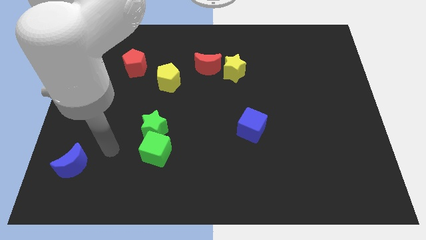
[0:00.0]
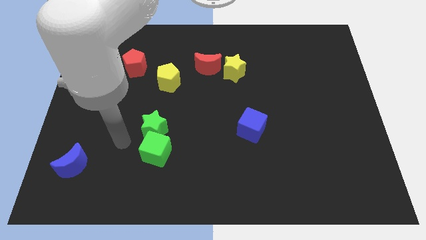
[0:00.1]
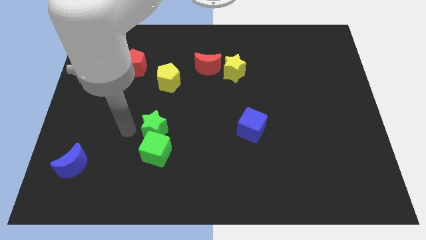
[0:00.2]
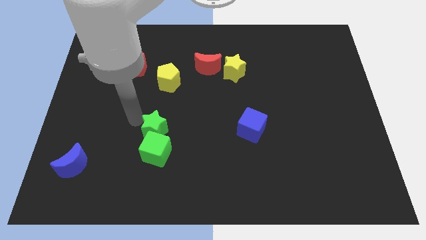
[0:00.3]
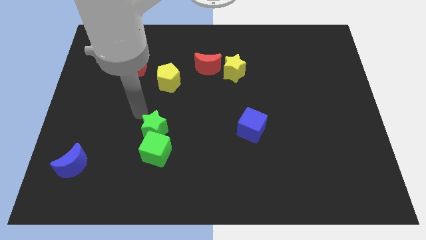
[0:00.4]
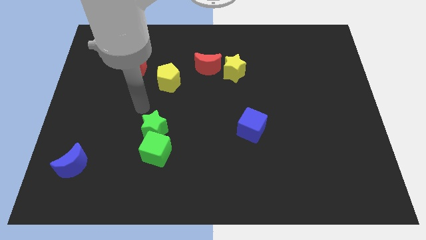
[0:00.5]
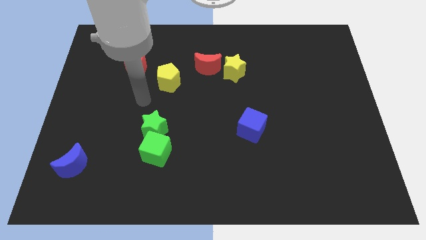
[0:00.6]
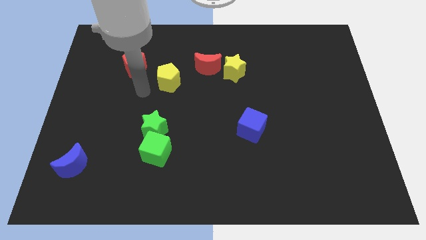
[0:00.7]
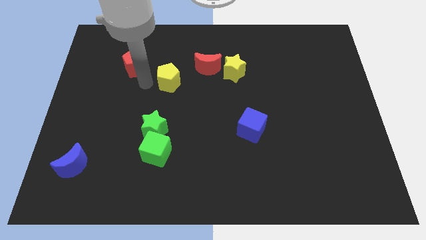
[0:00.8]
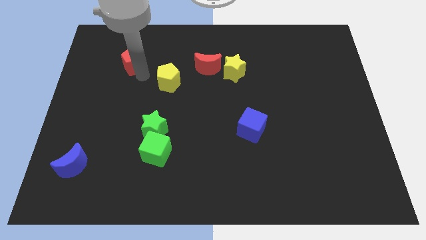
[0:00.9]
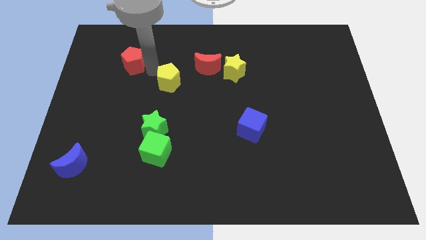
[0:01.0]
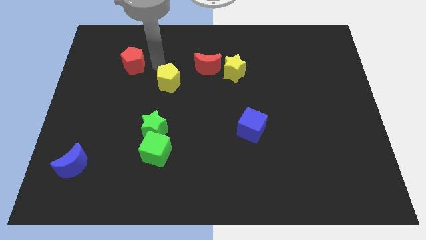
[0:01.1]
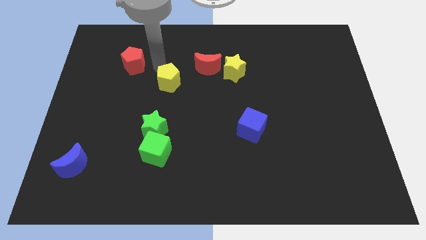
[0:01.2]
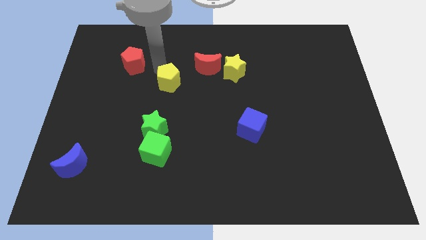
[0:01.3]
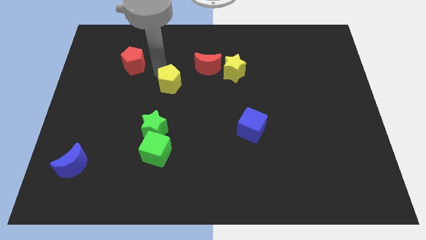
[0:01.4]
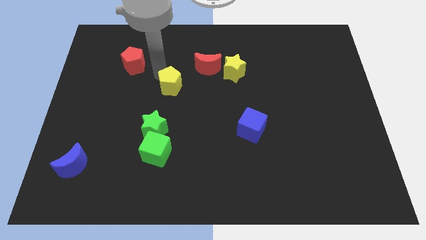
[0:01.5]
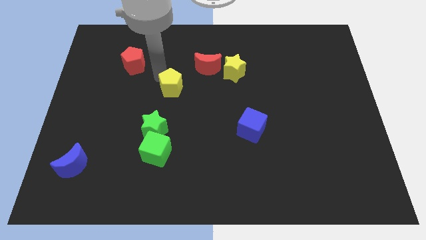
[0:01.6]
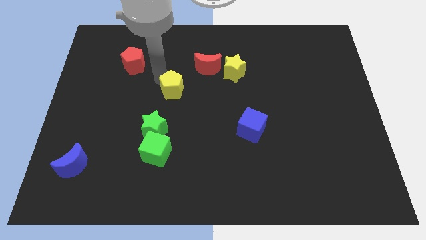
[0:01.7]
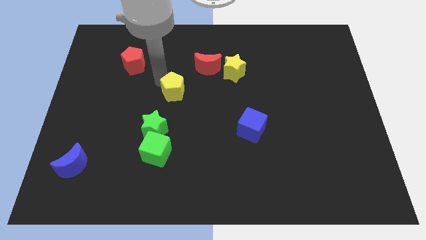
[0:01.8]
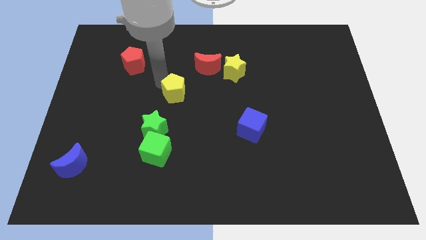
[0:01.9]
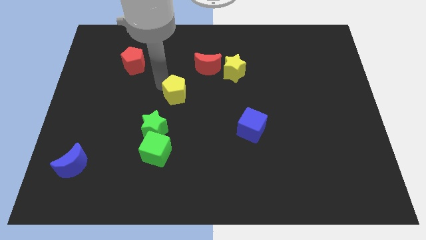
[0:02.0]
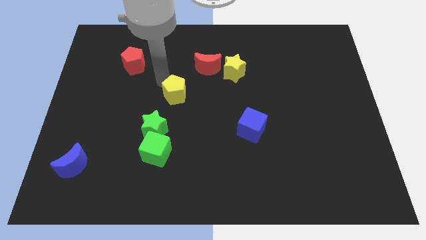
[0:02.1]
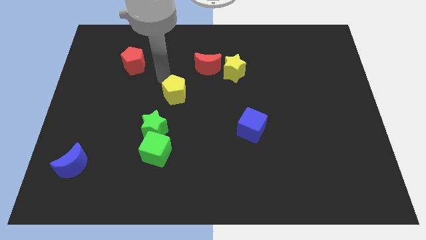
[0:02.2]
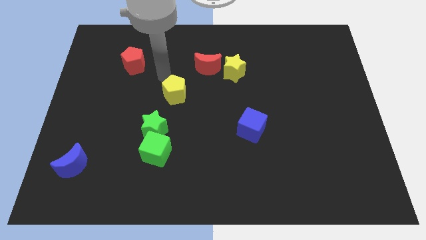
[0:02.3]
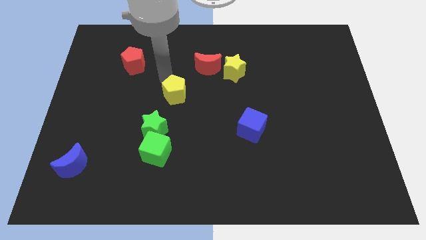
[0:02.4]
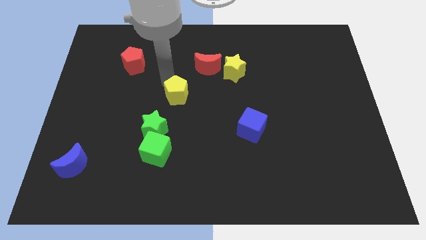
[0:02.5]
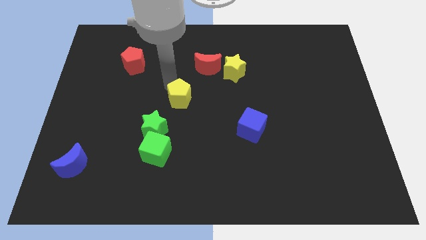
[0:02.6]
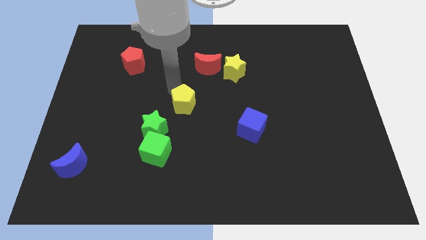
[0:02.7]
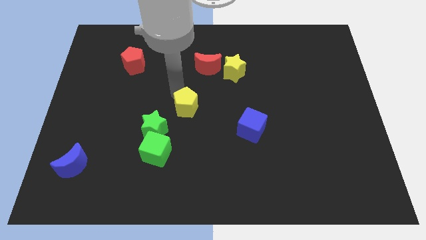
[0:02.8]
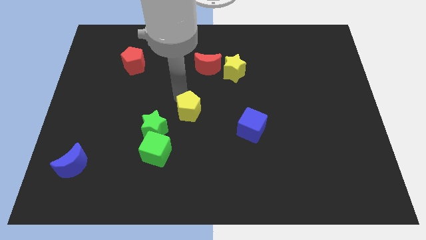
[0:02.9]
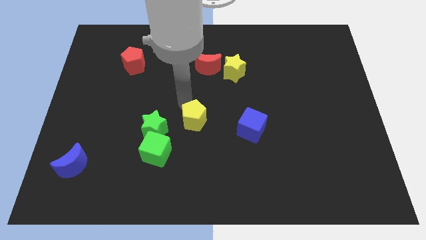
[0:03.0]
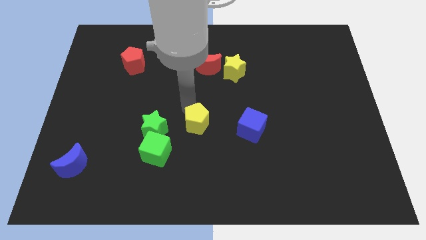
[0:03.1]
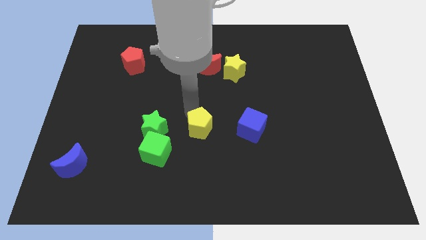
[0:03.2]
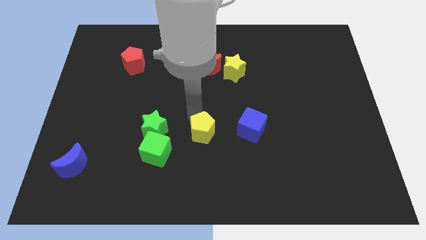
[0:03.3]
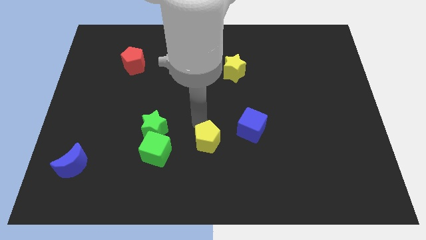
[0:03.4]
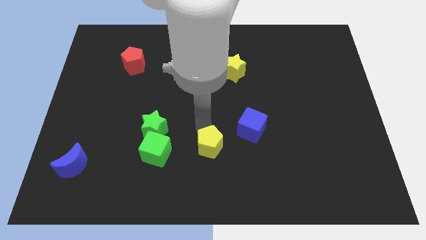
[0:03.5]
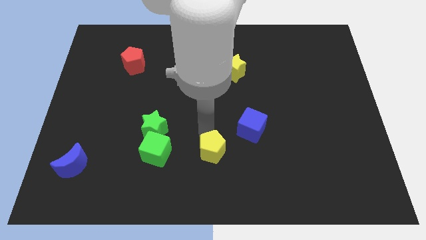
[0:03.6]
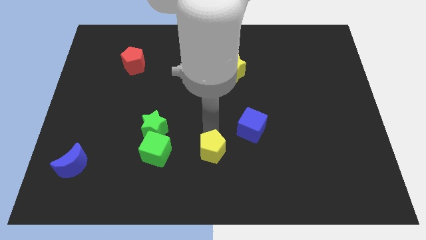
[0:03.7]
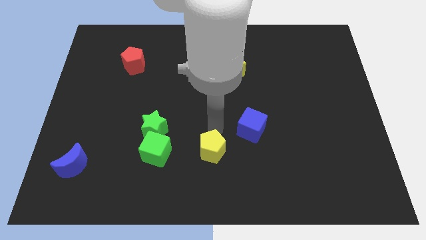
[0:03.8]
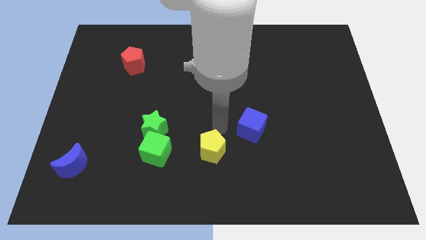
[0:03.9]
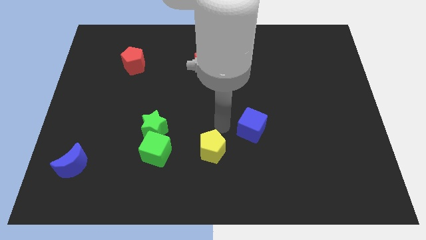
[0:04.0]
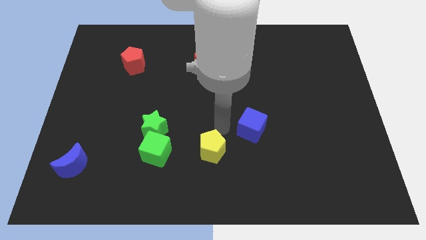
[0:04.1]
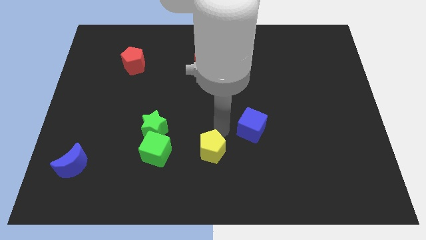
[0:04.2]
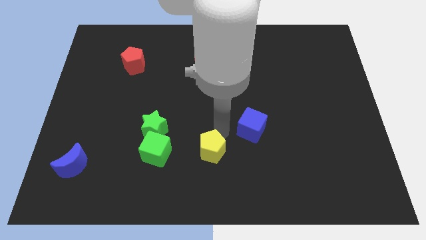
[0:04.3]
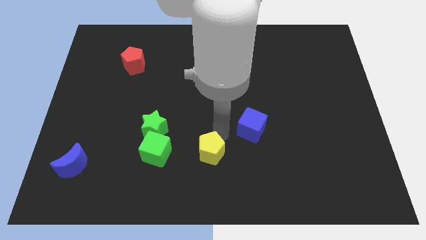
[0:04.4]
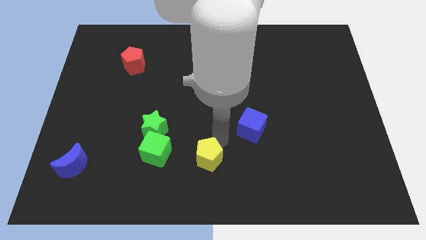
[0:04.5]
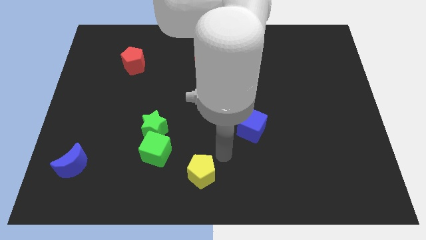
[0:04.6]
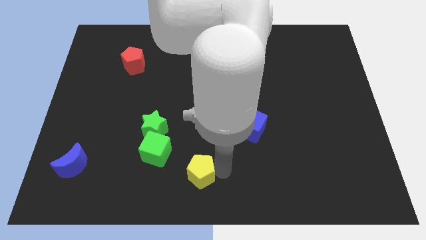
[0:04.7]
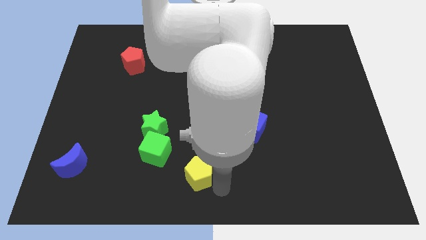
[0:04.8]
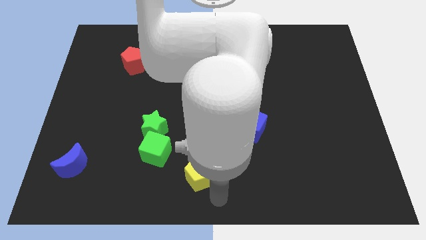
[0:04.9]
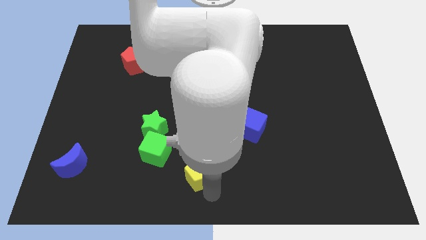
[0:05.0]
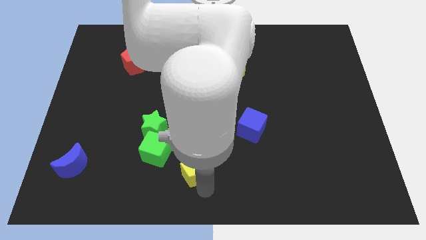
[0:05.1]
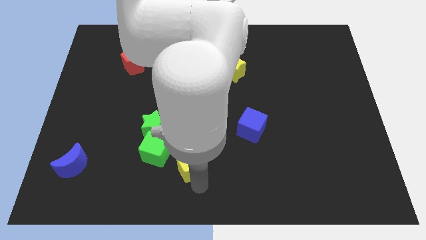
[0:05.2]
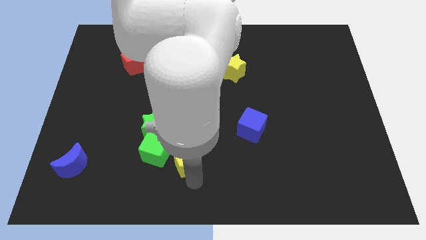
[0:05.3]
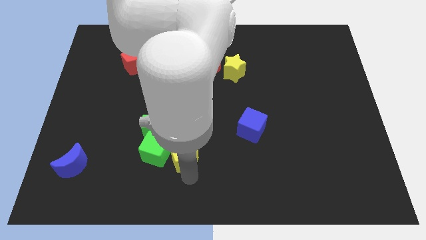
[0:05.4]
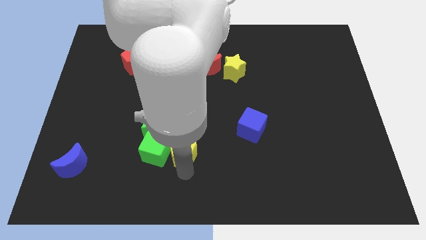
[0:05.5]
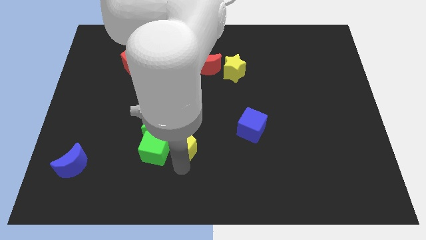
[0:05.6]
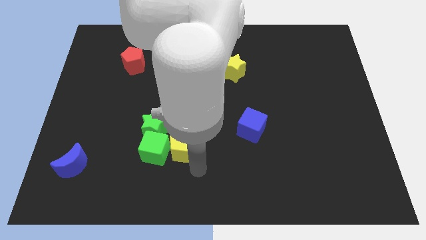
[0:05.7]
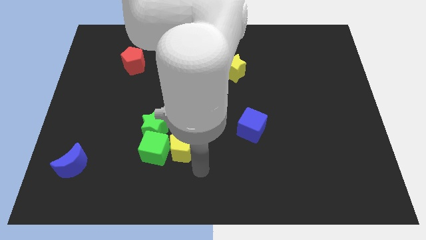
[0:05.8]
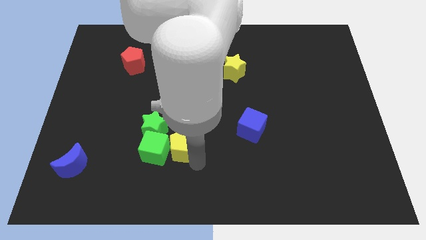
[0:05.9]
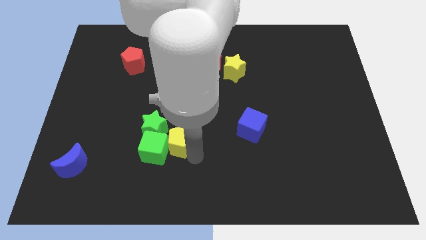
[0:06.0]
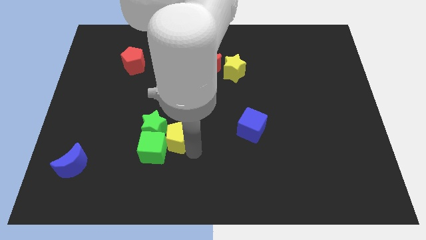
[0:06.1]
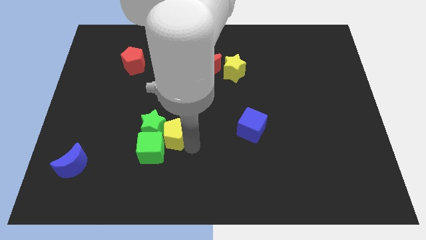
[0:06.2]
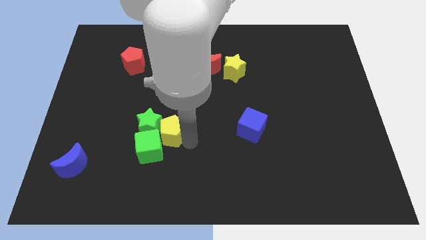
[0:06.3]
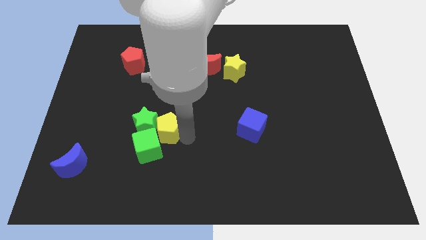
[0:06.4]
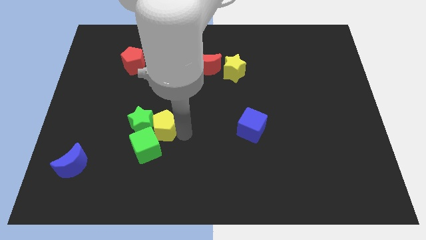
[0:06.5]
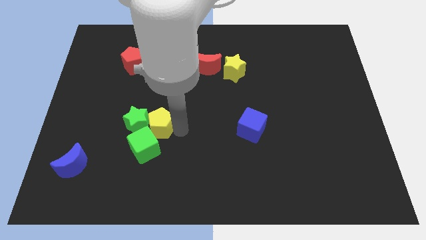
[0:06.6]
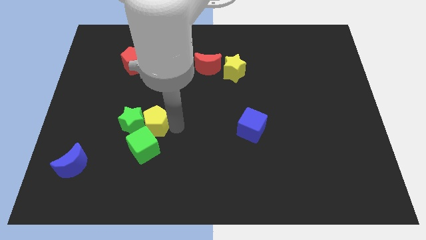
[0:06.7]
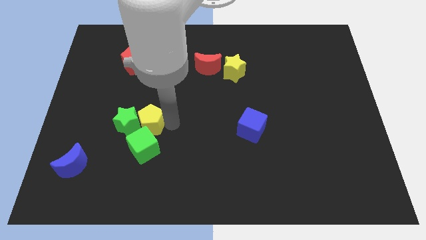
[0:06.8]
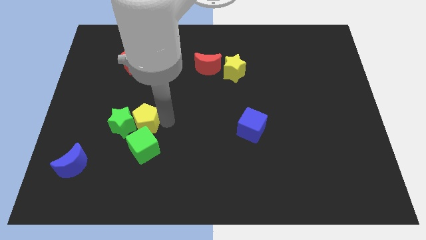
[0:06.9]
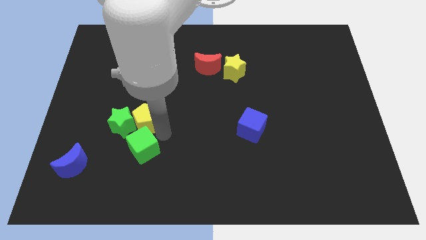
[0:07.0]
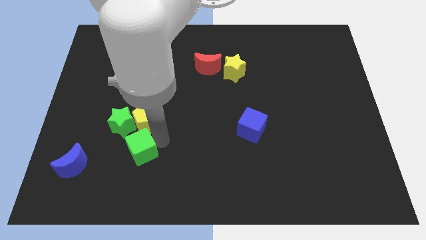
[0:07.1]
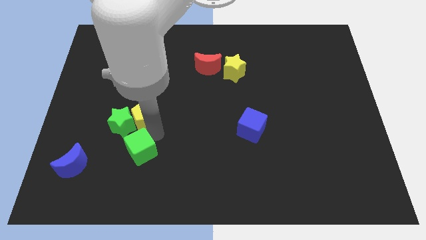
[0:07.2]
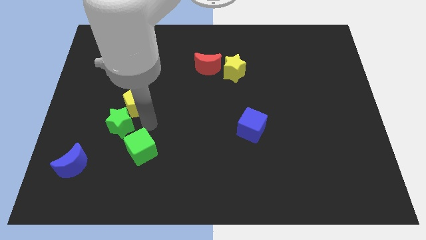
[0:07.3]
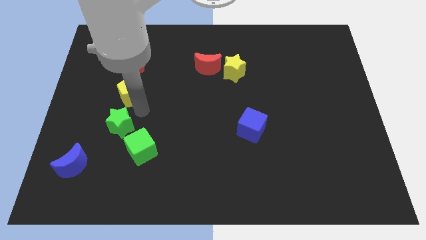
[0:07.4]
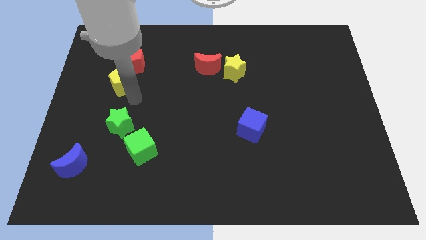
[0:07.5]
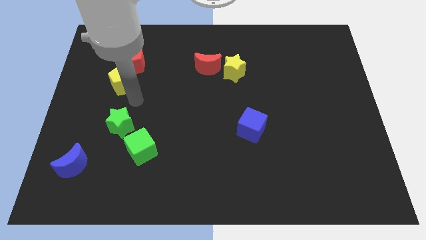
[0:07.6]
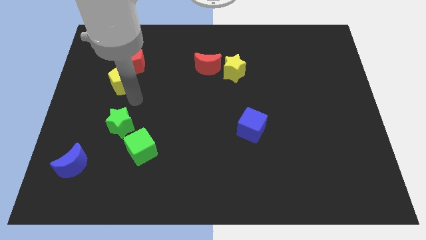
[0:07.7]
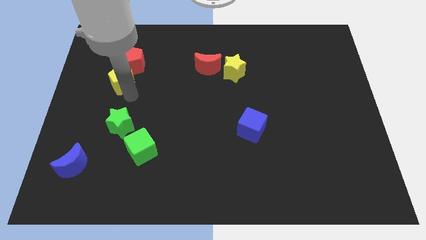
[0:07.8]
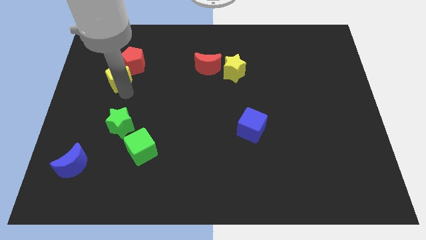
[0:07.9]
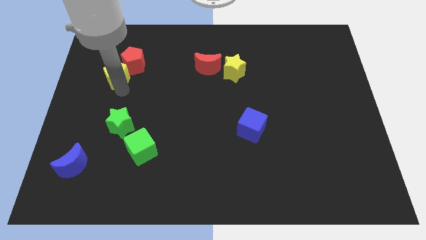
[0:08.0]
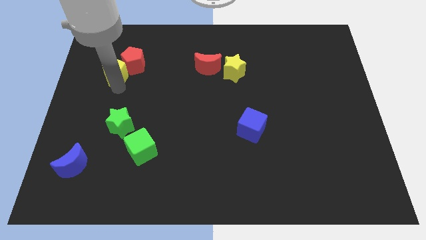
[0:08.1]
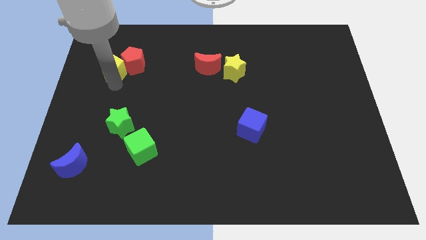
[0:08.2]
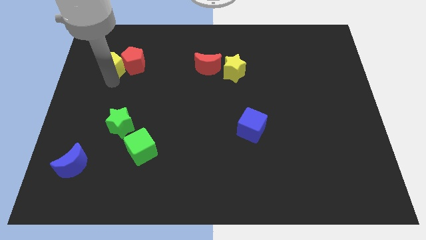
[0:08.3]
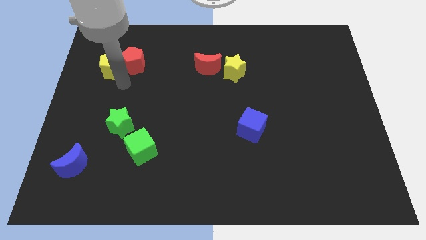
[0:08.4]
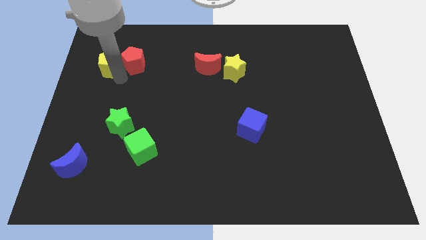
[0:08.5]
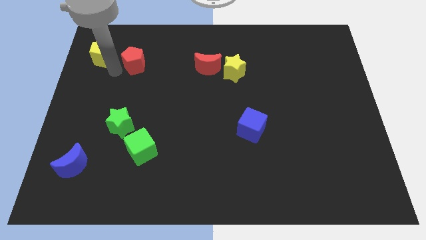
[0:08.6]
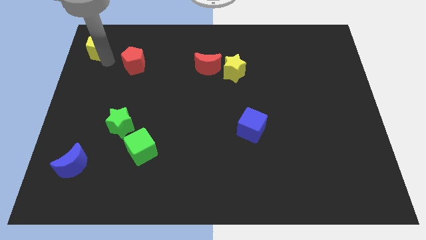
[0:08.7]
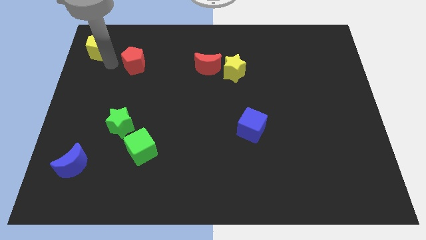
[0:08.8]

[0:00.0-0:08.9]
put the yellow pentagon to the upper left corner
